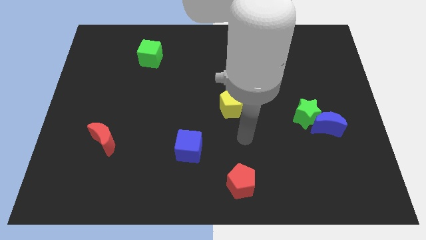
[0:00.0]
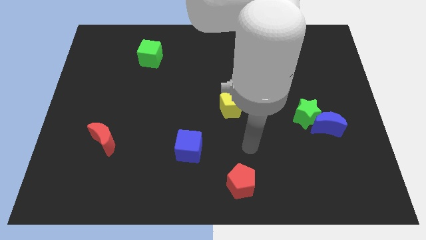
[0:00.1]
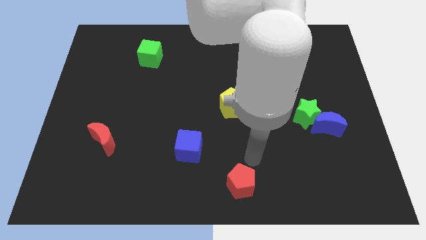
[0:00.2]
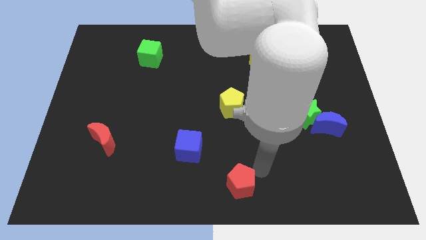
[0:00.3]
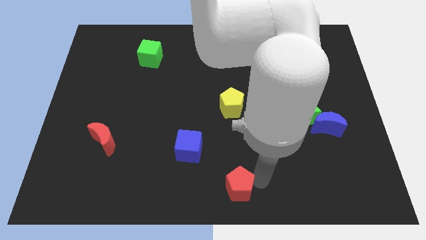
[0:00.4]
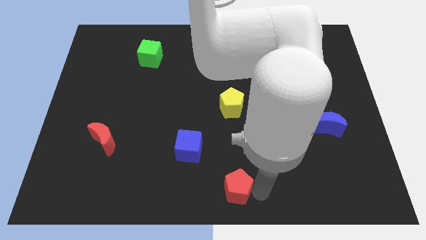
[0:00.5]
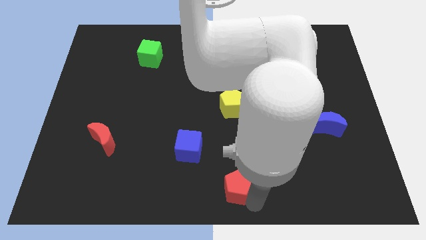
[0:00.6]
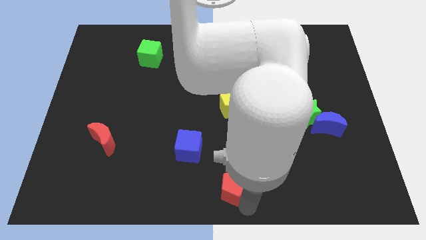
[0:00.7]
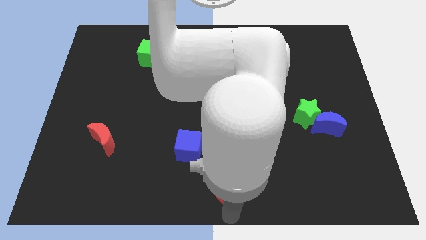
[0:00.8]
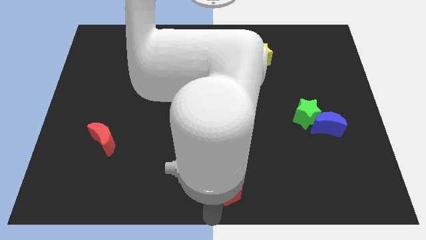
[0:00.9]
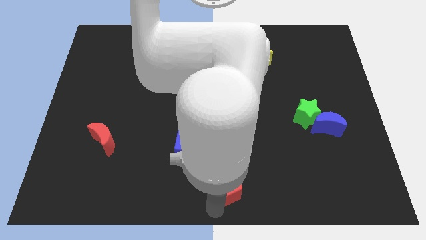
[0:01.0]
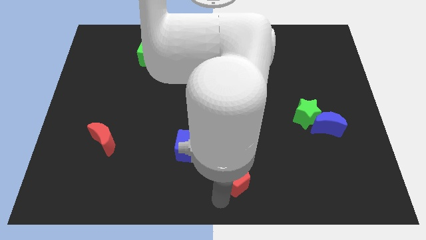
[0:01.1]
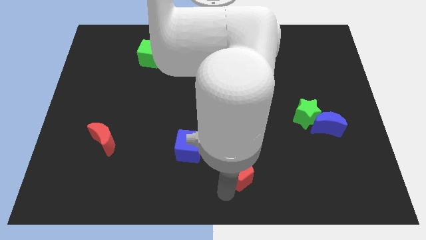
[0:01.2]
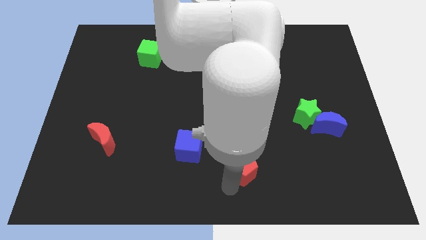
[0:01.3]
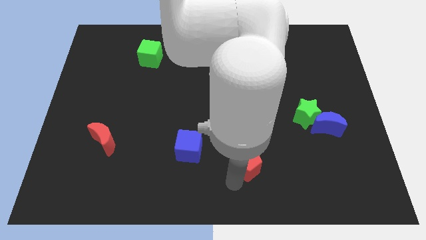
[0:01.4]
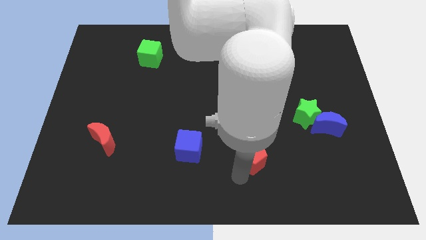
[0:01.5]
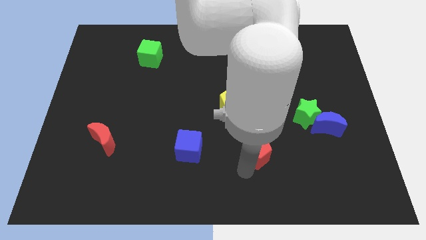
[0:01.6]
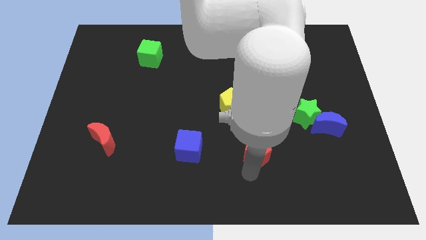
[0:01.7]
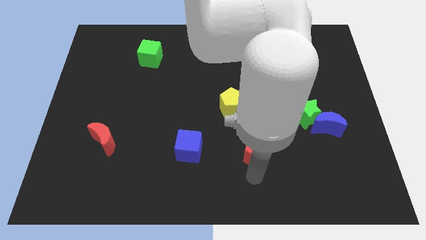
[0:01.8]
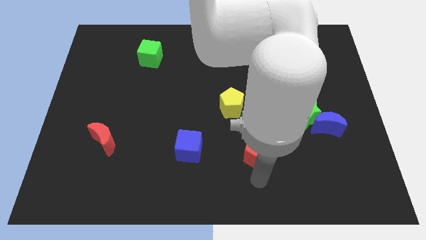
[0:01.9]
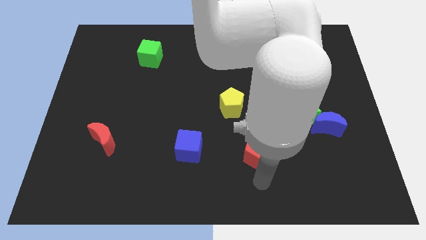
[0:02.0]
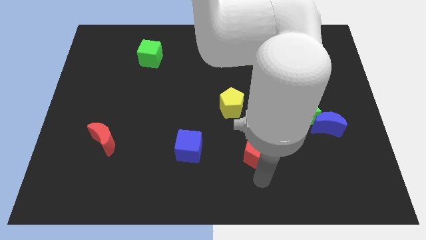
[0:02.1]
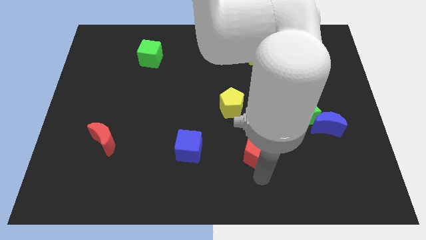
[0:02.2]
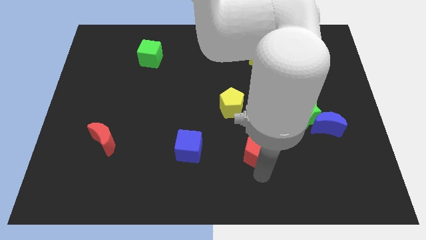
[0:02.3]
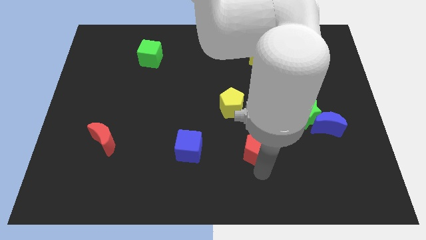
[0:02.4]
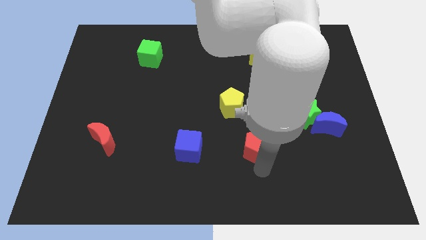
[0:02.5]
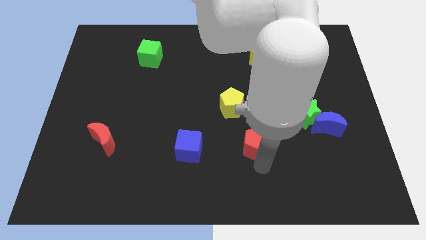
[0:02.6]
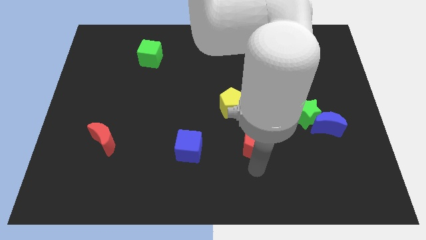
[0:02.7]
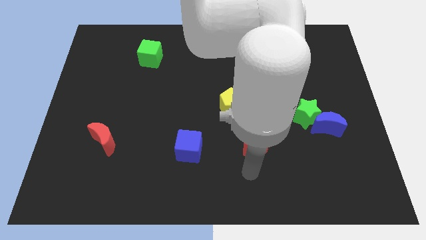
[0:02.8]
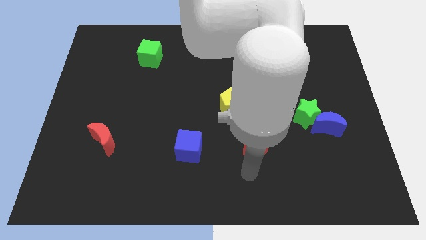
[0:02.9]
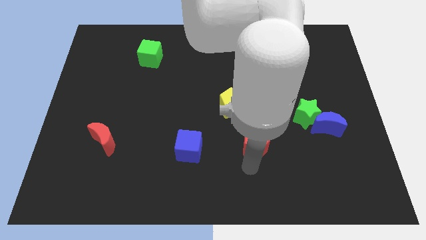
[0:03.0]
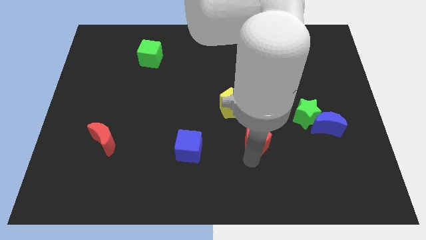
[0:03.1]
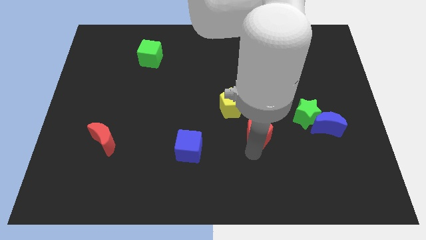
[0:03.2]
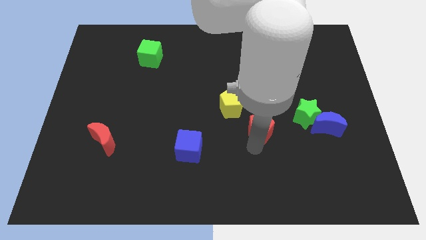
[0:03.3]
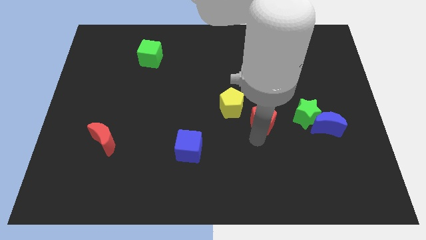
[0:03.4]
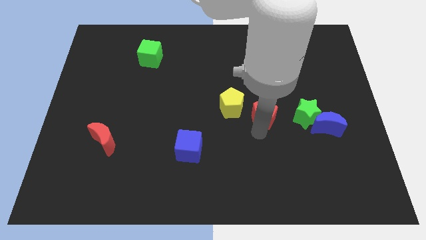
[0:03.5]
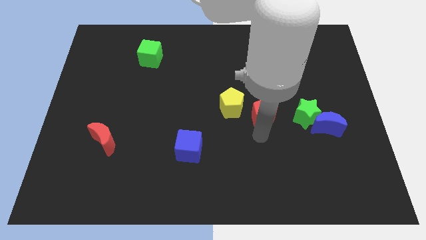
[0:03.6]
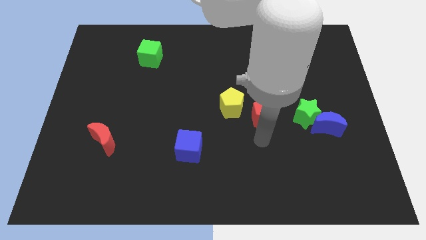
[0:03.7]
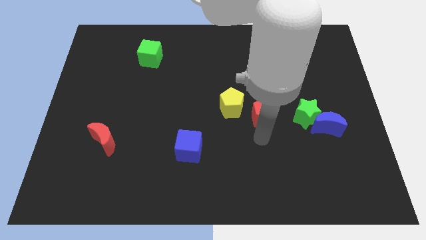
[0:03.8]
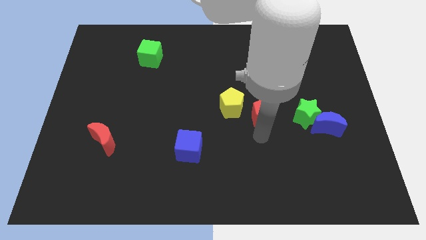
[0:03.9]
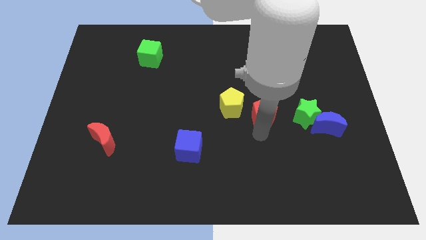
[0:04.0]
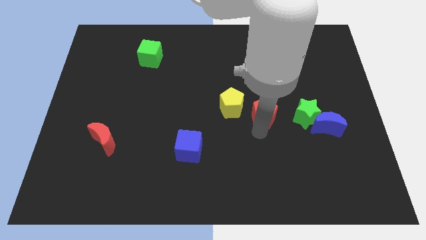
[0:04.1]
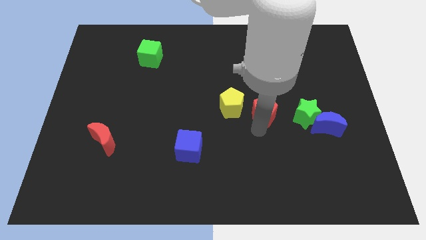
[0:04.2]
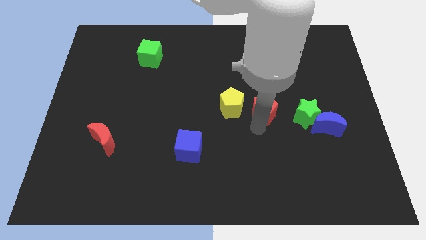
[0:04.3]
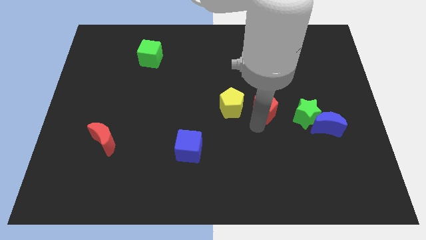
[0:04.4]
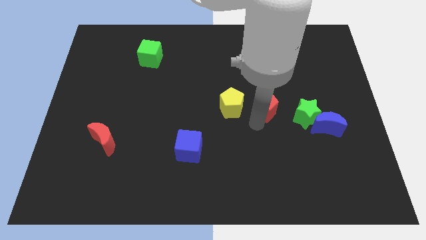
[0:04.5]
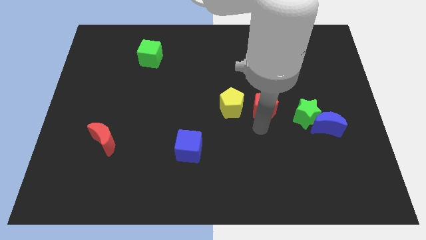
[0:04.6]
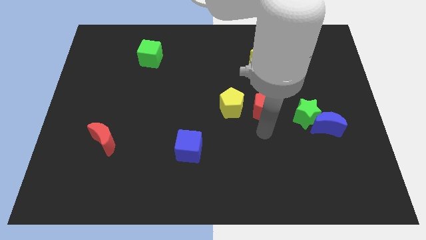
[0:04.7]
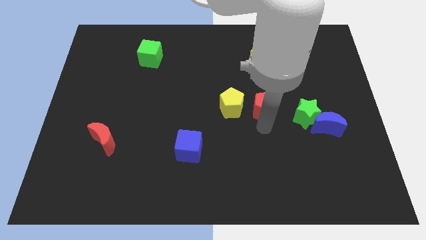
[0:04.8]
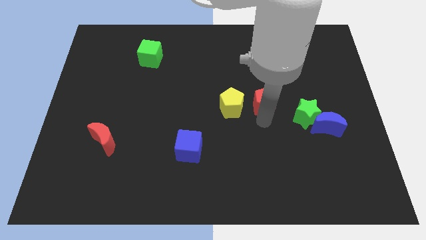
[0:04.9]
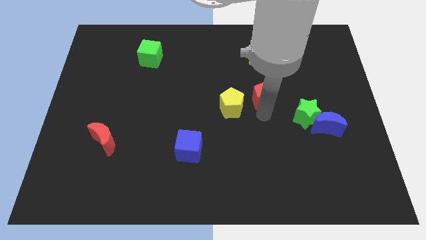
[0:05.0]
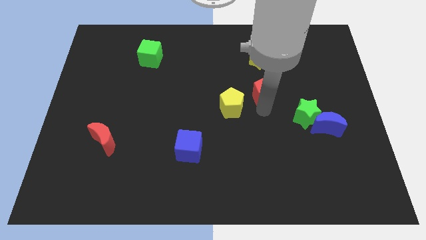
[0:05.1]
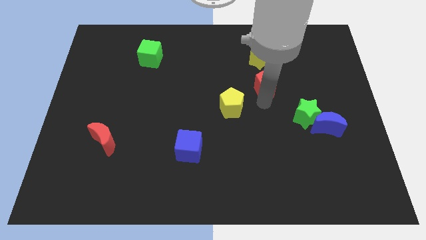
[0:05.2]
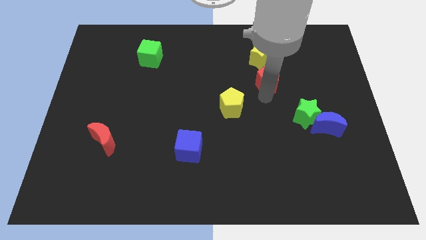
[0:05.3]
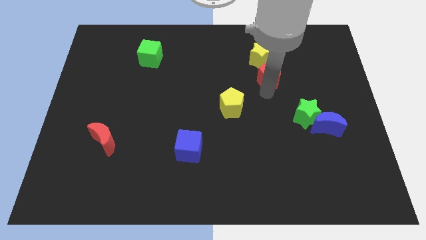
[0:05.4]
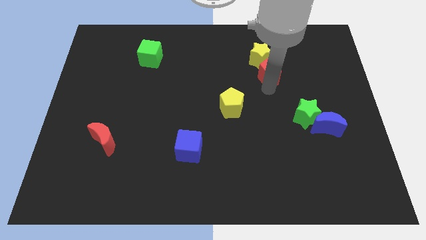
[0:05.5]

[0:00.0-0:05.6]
push the red pentagon next to the yellow star

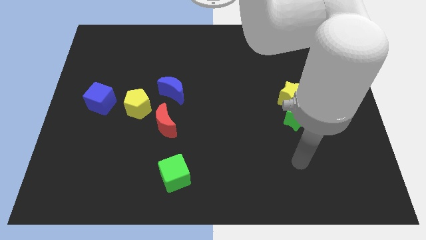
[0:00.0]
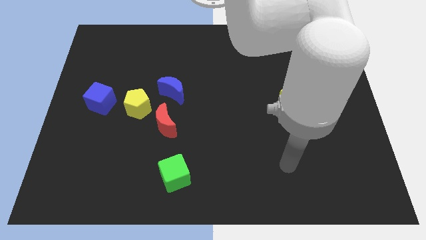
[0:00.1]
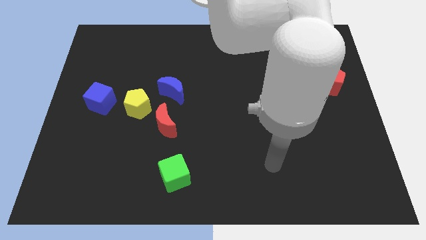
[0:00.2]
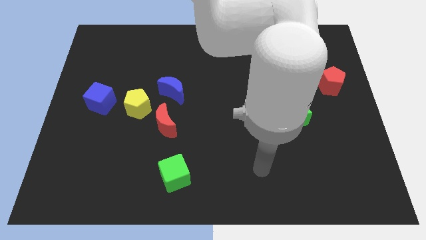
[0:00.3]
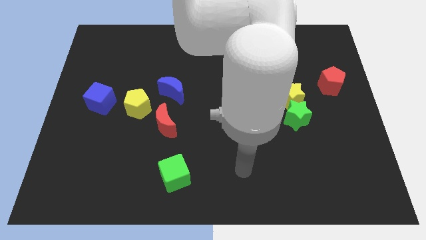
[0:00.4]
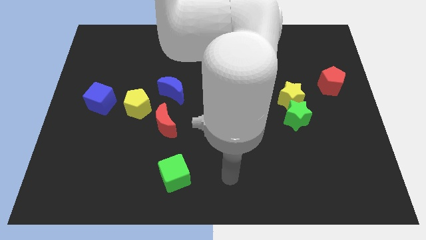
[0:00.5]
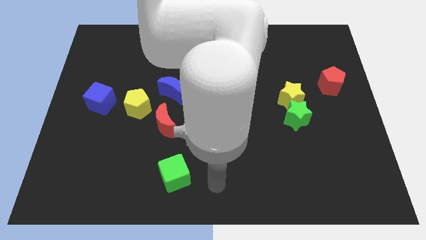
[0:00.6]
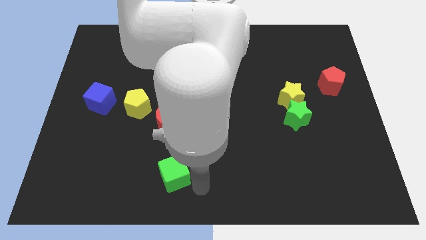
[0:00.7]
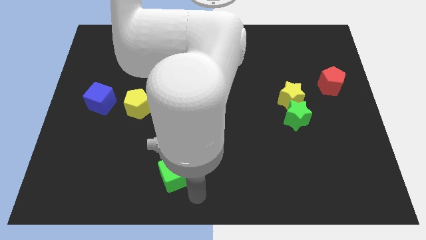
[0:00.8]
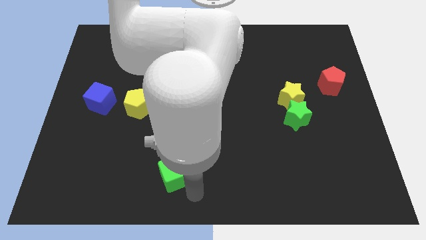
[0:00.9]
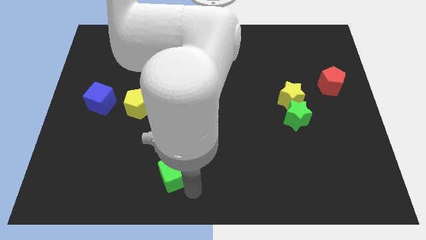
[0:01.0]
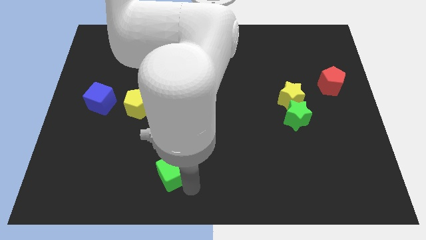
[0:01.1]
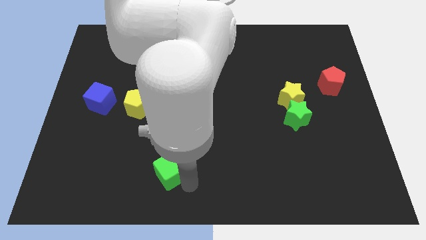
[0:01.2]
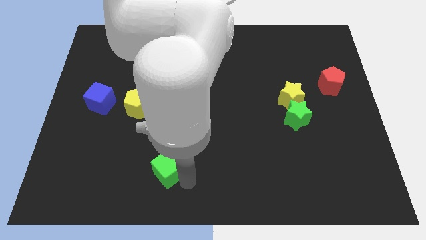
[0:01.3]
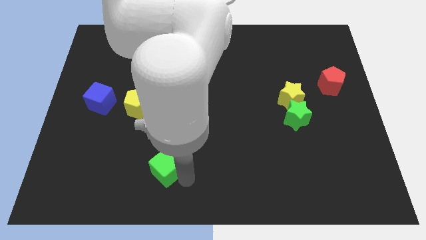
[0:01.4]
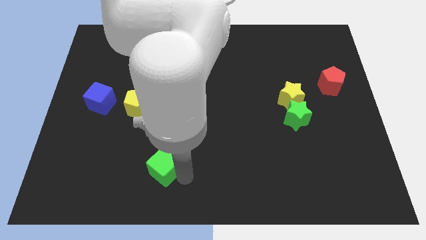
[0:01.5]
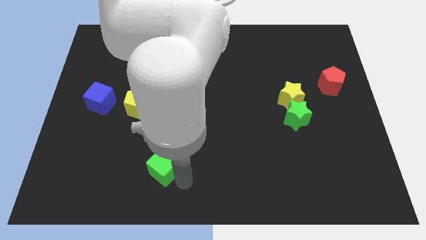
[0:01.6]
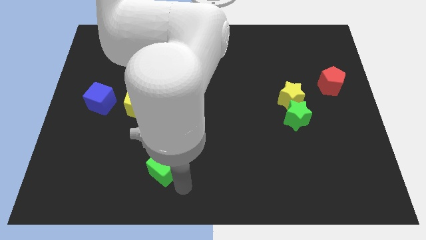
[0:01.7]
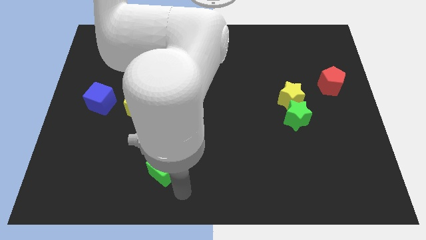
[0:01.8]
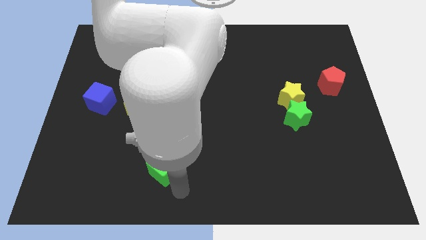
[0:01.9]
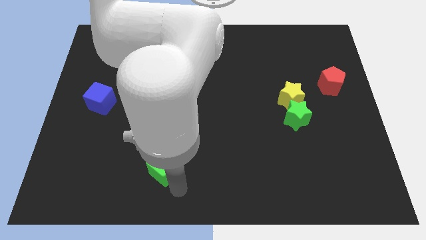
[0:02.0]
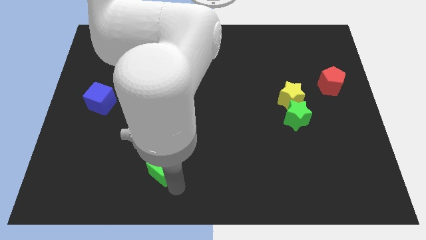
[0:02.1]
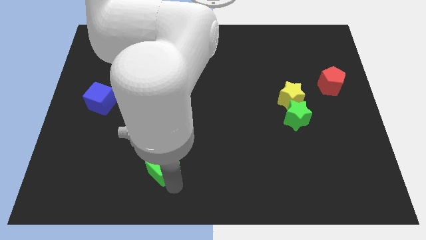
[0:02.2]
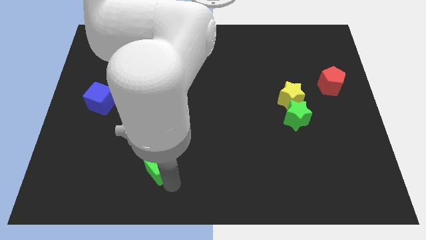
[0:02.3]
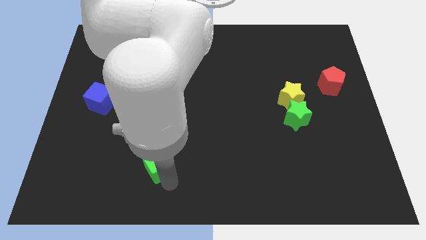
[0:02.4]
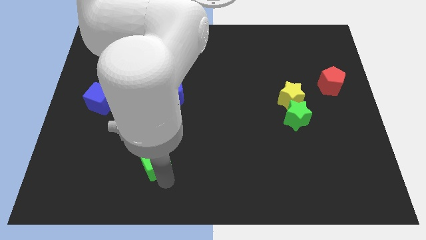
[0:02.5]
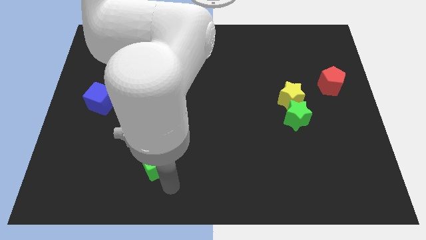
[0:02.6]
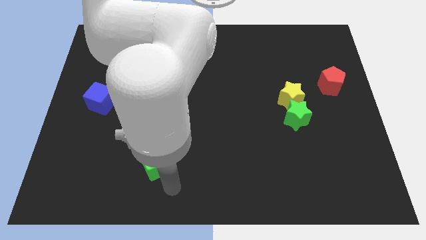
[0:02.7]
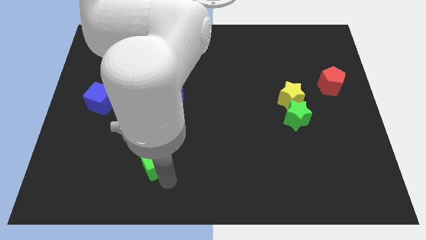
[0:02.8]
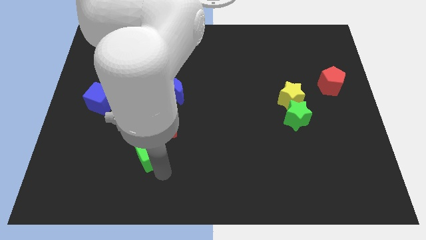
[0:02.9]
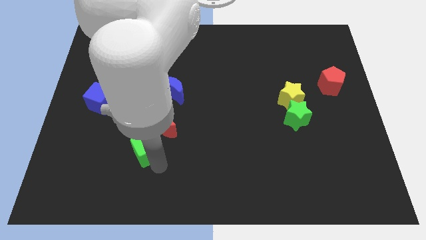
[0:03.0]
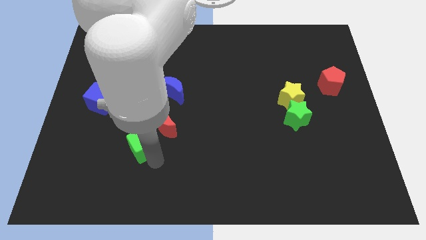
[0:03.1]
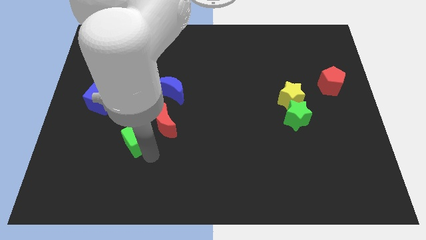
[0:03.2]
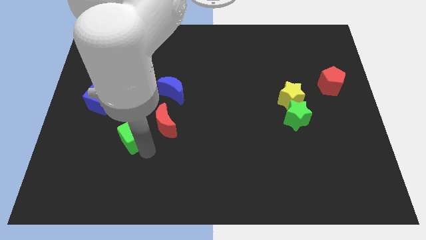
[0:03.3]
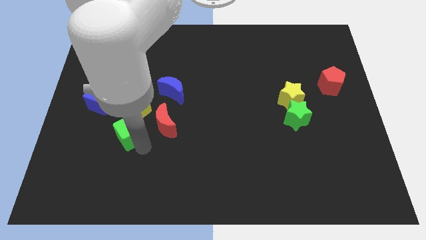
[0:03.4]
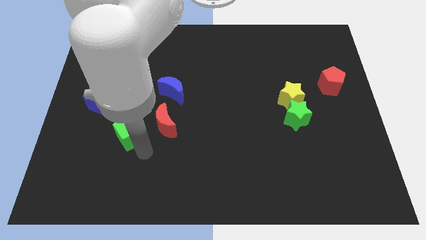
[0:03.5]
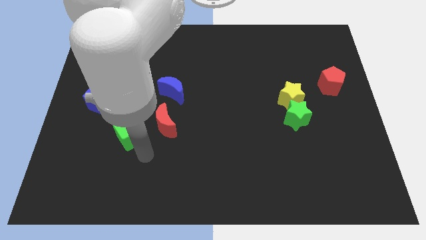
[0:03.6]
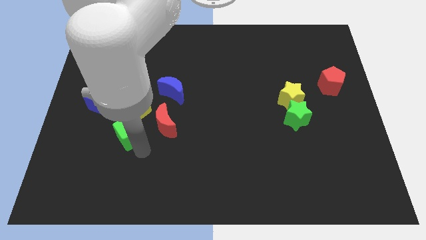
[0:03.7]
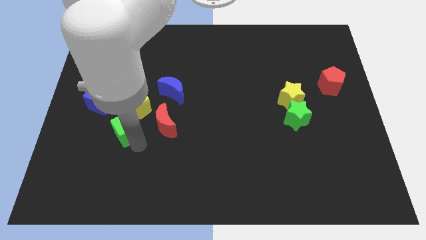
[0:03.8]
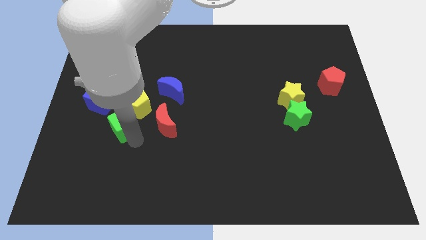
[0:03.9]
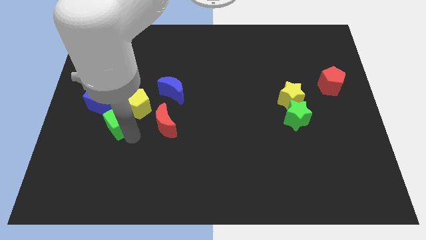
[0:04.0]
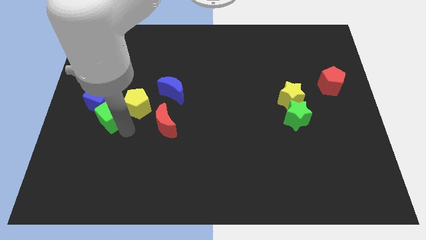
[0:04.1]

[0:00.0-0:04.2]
move the green cube towards the blue cube
